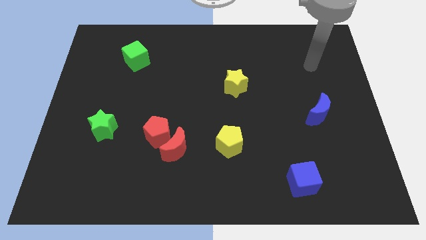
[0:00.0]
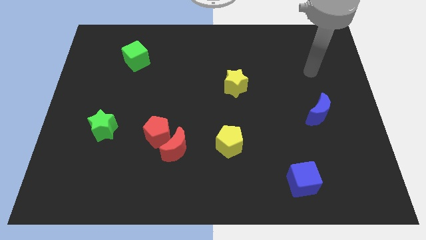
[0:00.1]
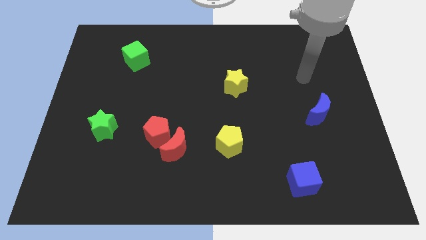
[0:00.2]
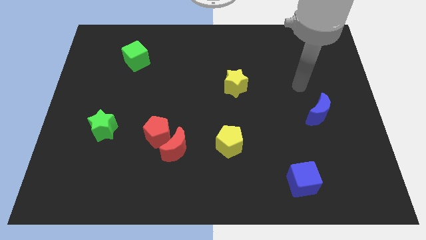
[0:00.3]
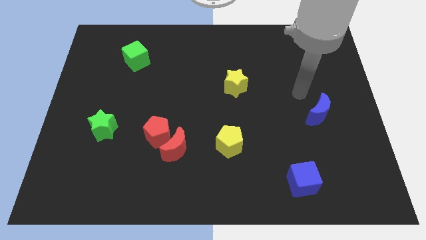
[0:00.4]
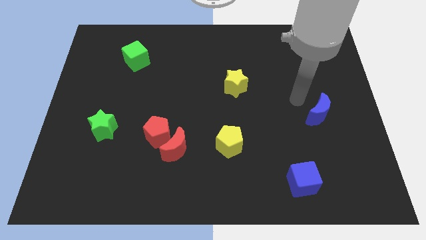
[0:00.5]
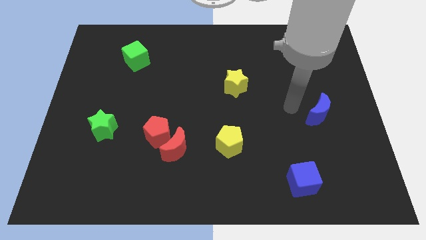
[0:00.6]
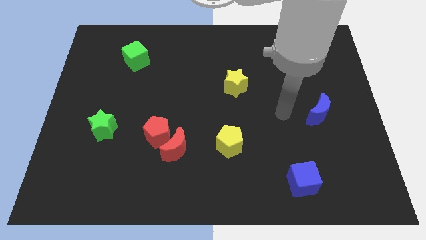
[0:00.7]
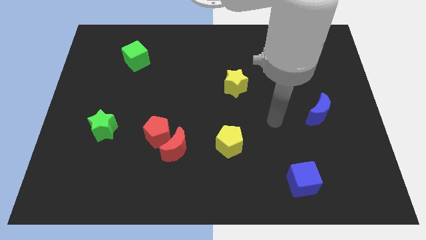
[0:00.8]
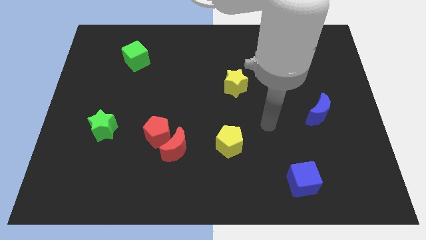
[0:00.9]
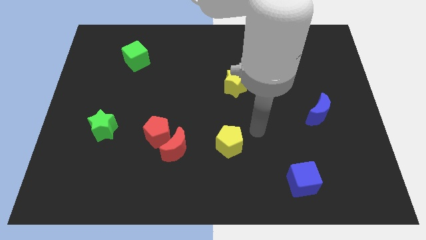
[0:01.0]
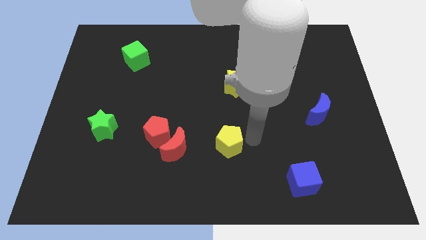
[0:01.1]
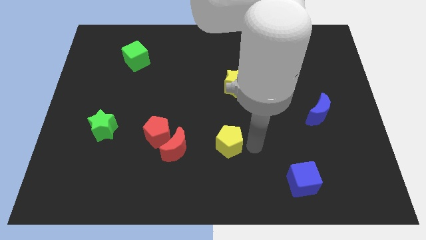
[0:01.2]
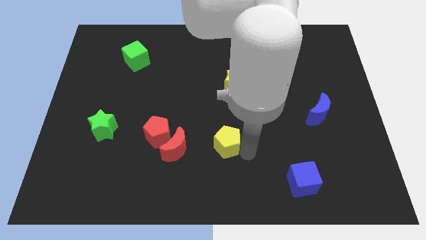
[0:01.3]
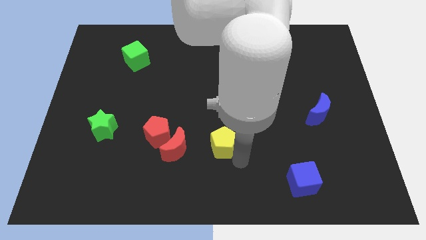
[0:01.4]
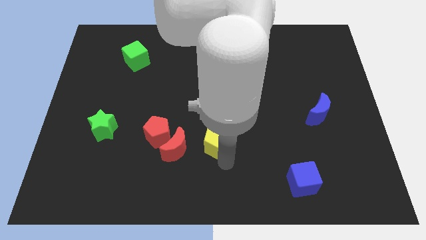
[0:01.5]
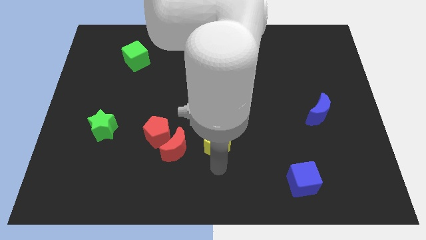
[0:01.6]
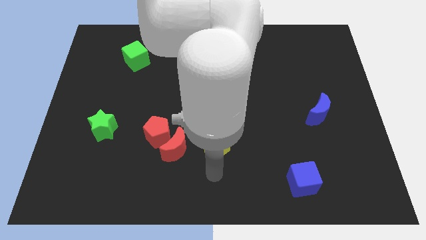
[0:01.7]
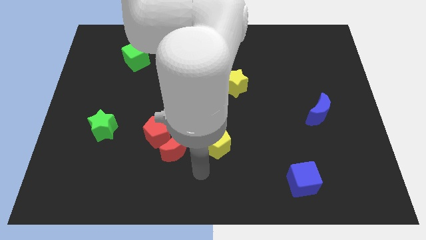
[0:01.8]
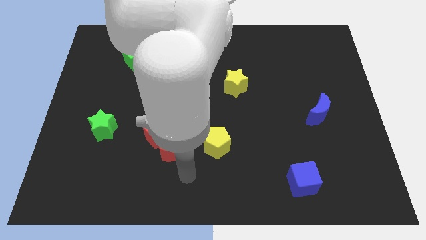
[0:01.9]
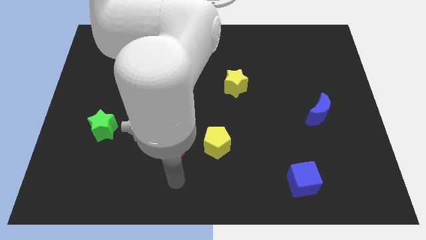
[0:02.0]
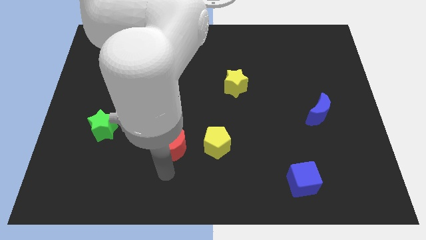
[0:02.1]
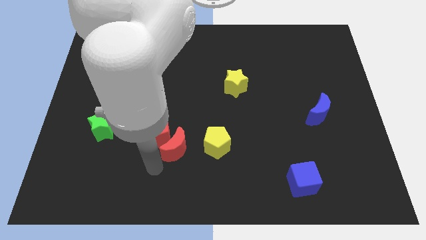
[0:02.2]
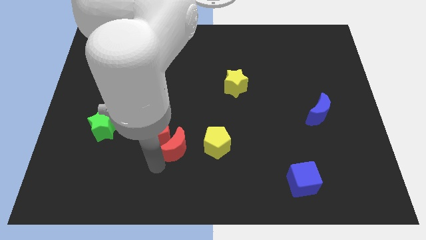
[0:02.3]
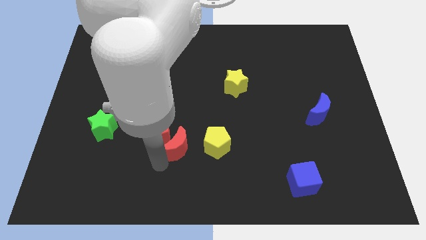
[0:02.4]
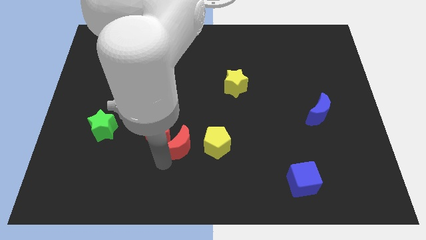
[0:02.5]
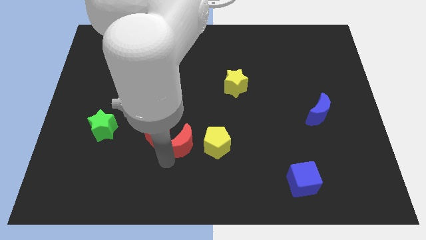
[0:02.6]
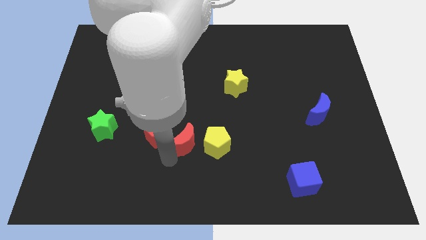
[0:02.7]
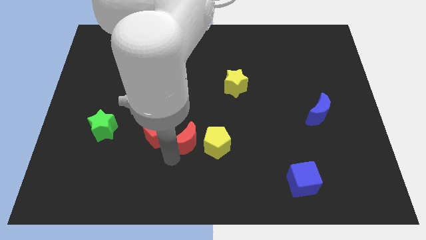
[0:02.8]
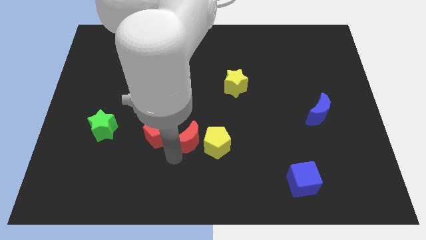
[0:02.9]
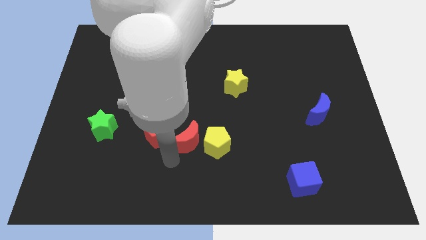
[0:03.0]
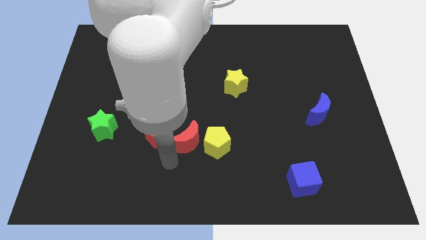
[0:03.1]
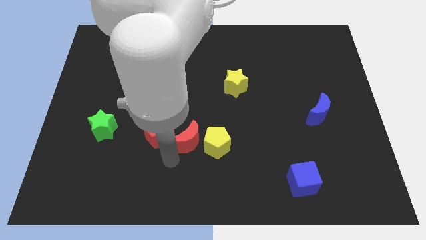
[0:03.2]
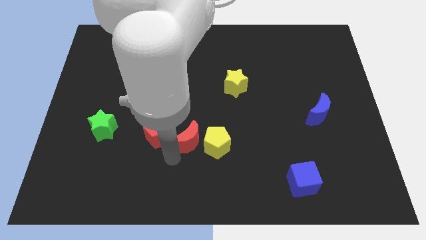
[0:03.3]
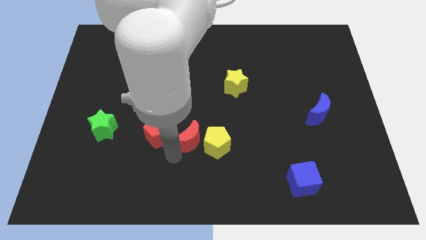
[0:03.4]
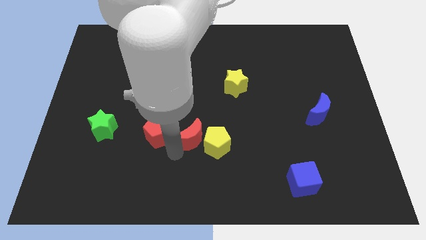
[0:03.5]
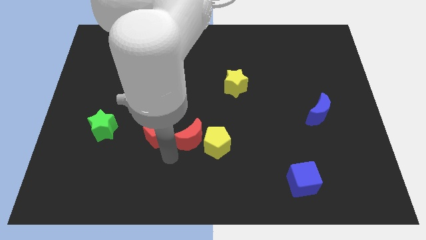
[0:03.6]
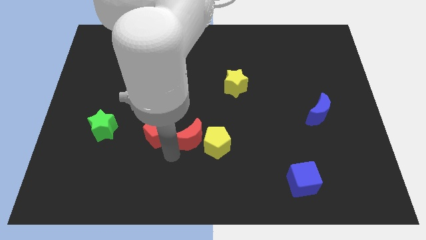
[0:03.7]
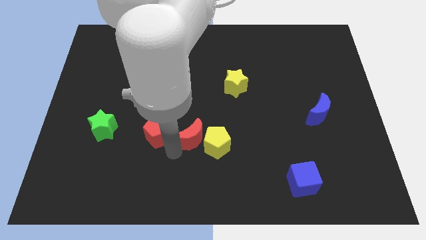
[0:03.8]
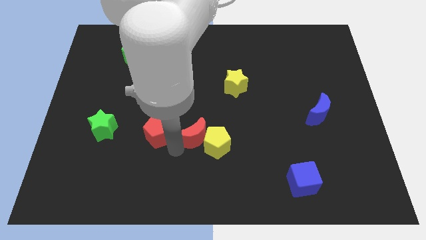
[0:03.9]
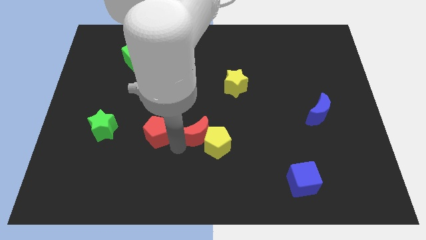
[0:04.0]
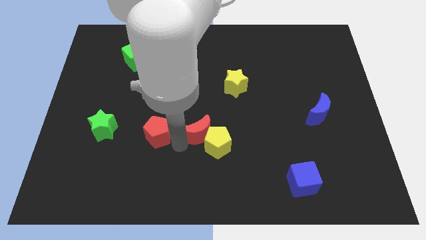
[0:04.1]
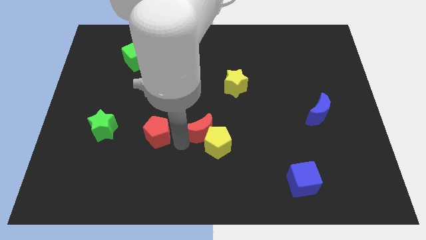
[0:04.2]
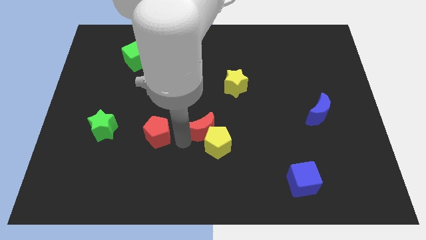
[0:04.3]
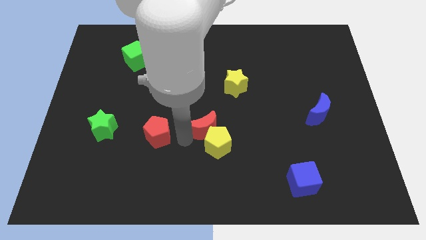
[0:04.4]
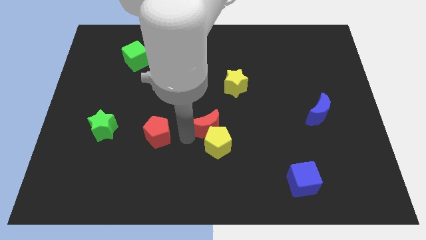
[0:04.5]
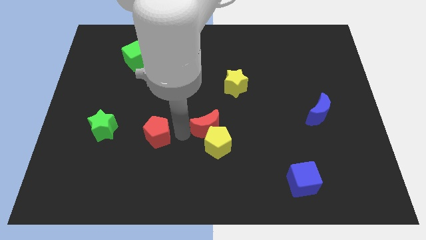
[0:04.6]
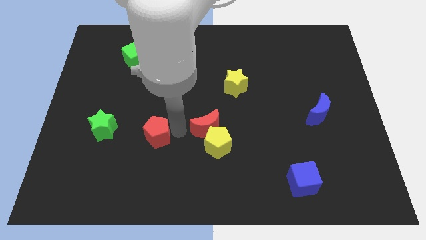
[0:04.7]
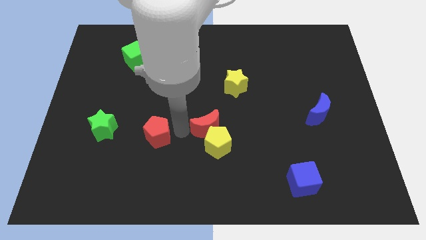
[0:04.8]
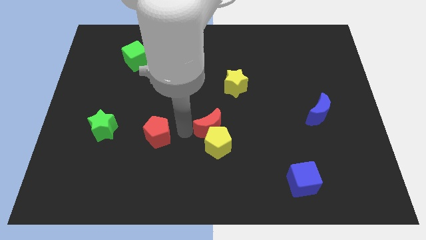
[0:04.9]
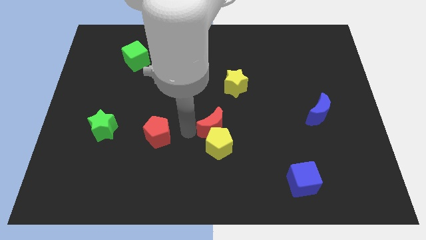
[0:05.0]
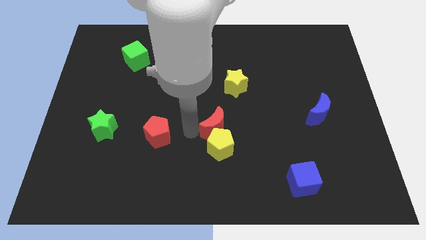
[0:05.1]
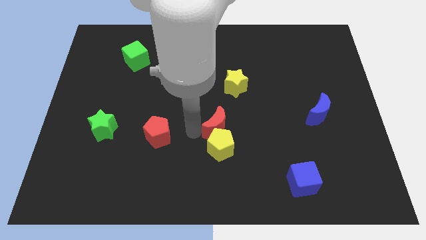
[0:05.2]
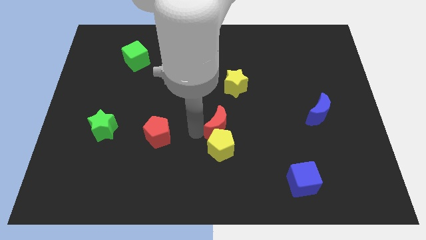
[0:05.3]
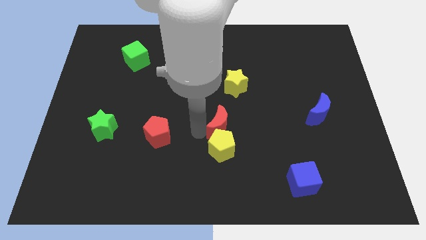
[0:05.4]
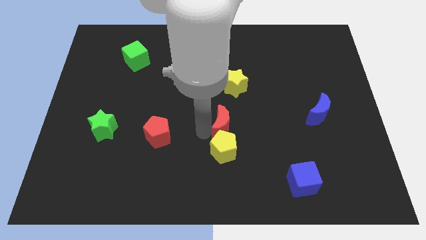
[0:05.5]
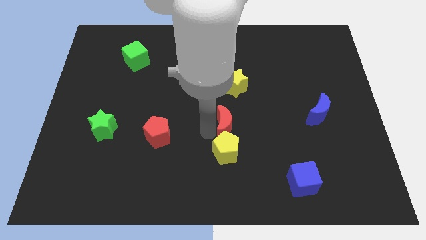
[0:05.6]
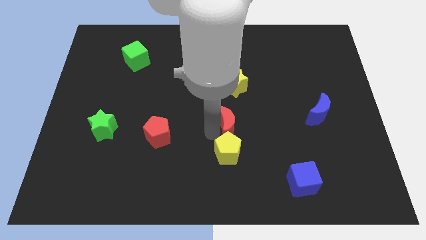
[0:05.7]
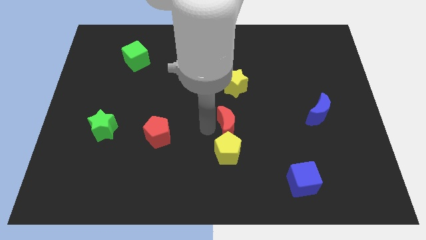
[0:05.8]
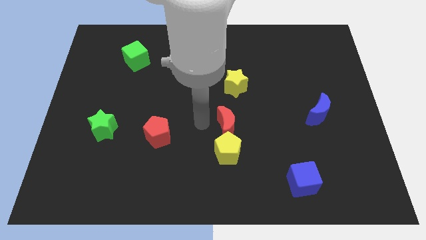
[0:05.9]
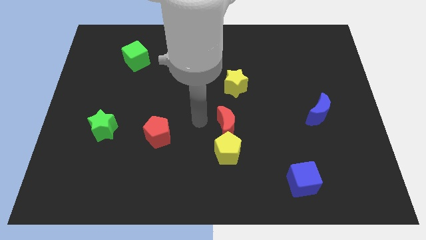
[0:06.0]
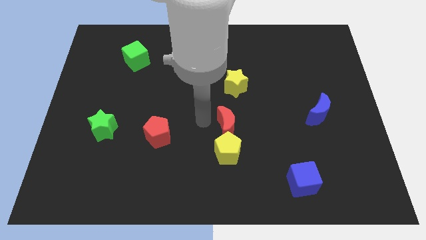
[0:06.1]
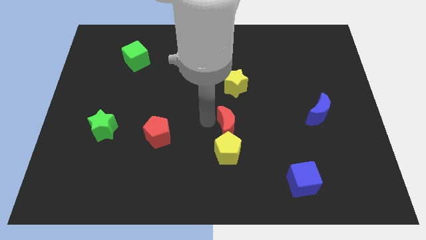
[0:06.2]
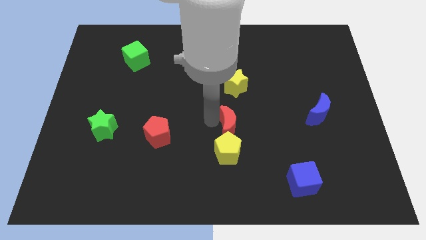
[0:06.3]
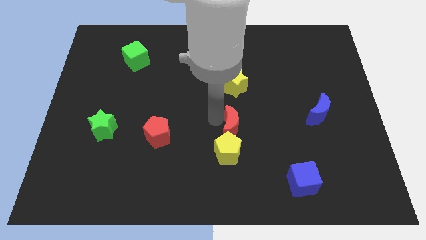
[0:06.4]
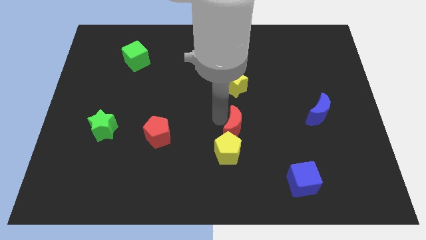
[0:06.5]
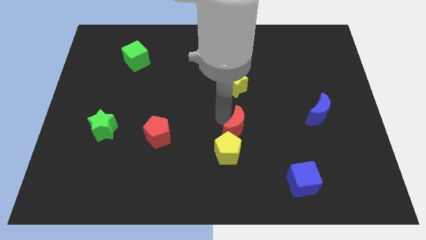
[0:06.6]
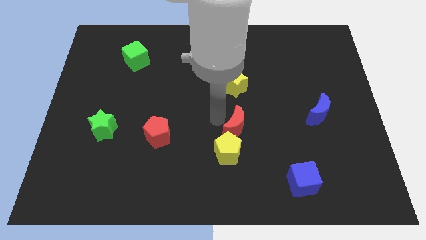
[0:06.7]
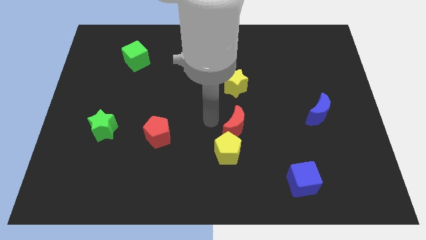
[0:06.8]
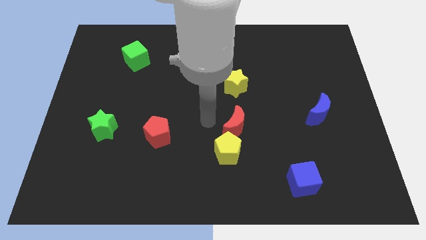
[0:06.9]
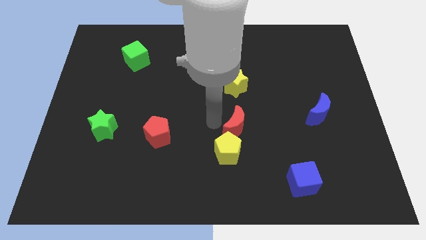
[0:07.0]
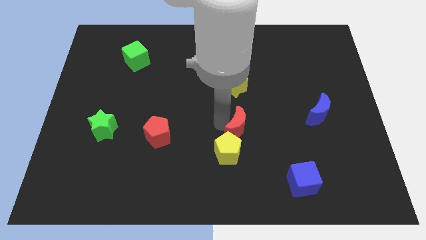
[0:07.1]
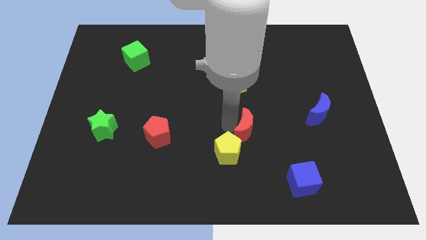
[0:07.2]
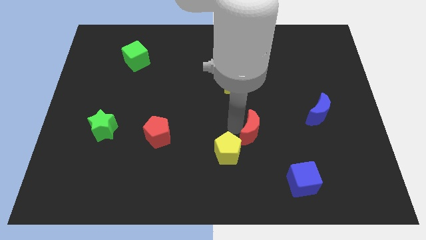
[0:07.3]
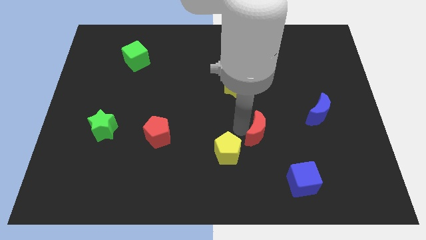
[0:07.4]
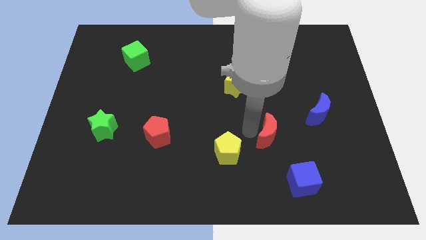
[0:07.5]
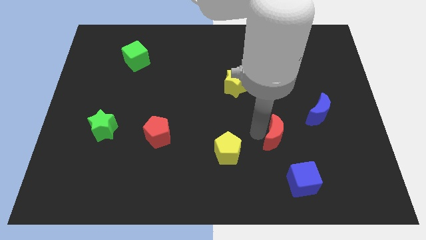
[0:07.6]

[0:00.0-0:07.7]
move the red moon to the right

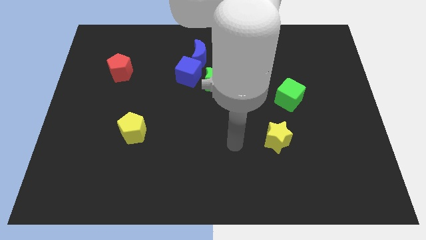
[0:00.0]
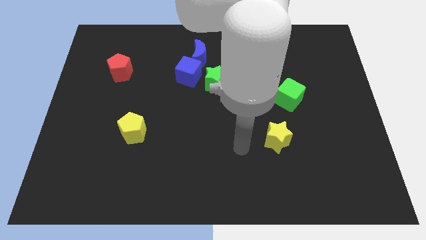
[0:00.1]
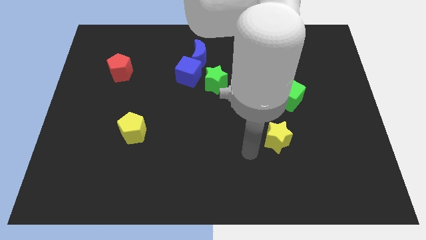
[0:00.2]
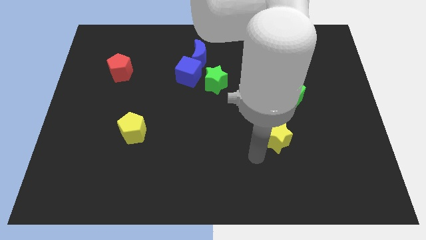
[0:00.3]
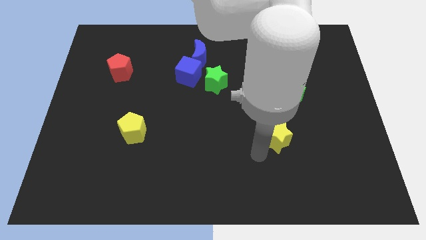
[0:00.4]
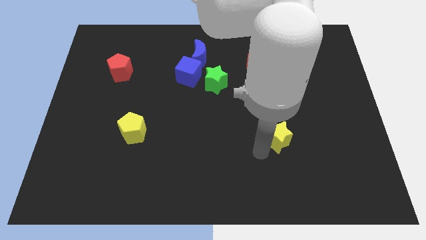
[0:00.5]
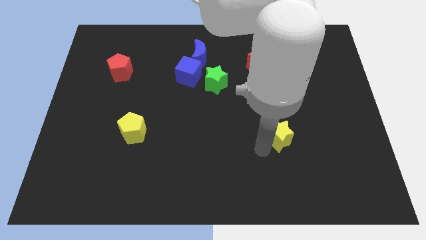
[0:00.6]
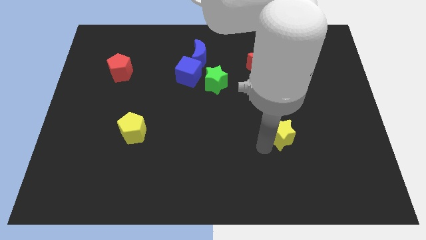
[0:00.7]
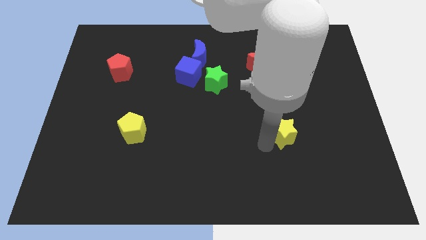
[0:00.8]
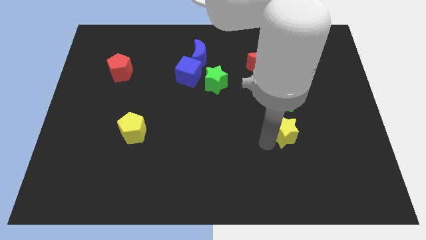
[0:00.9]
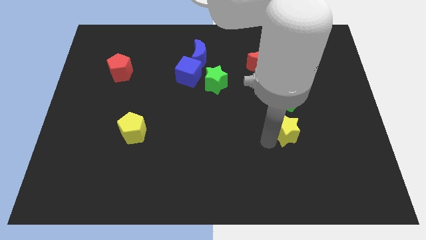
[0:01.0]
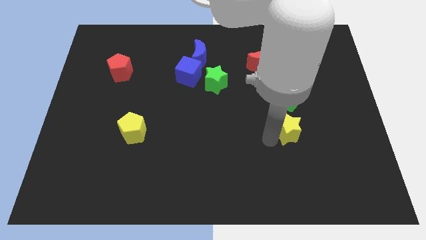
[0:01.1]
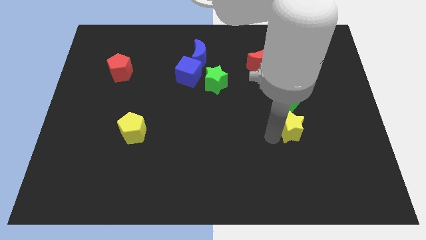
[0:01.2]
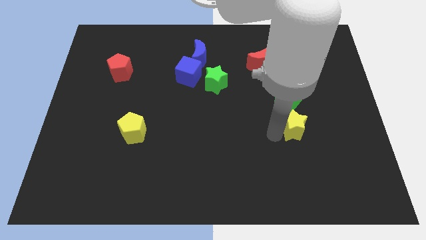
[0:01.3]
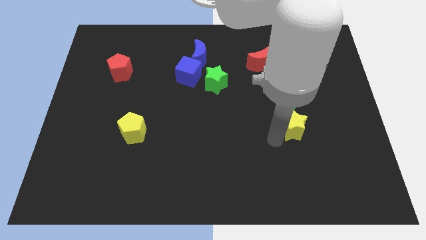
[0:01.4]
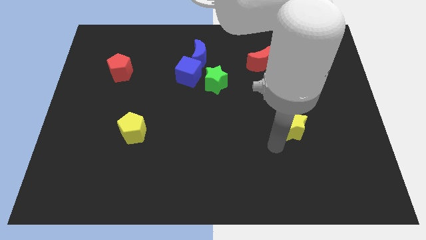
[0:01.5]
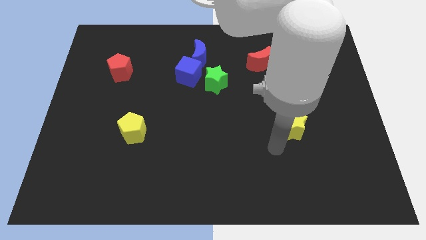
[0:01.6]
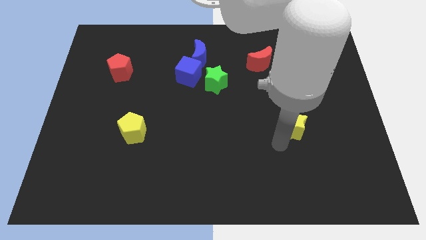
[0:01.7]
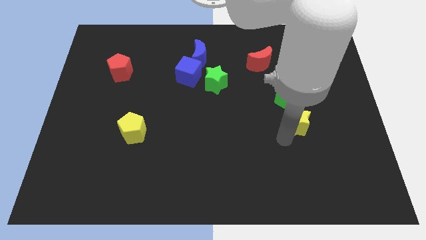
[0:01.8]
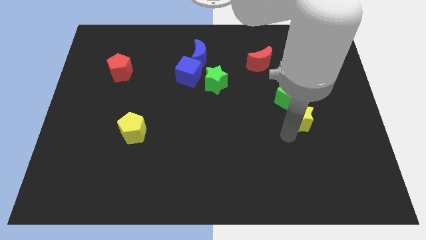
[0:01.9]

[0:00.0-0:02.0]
push the yellow star a bit diagonally upwards and right
